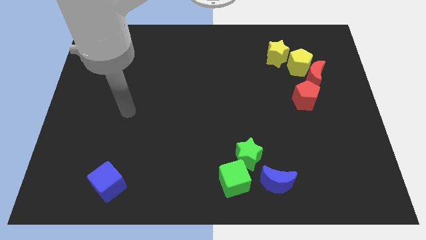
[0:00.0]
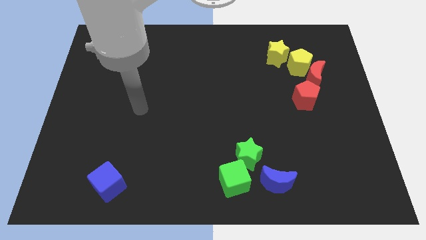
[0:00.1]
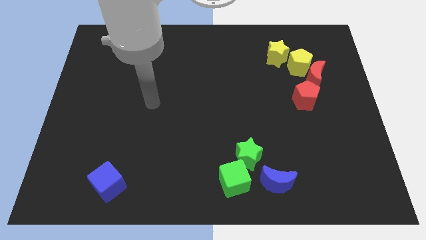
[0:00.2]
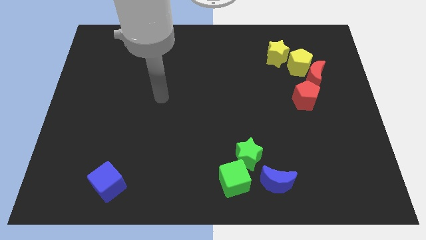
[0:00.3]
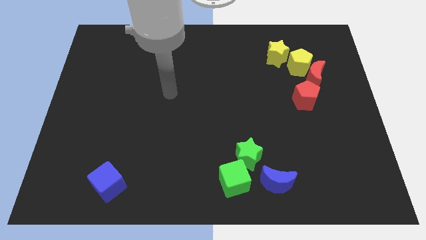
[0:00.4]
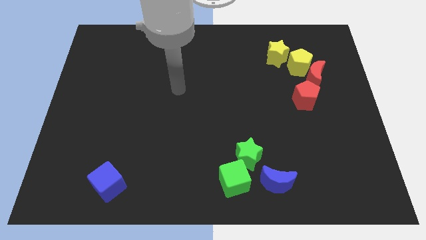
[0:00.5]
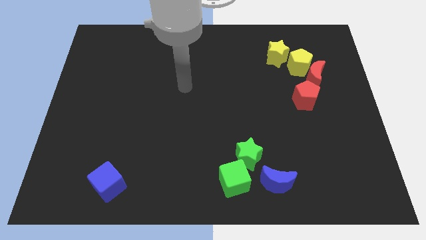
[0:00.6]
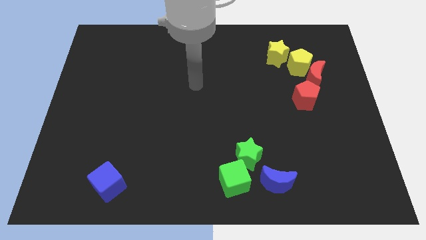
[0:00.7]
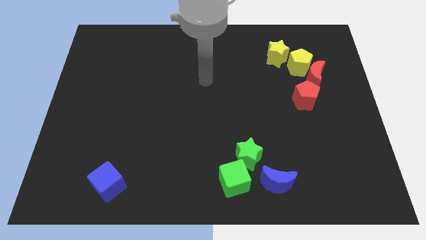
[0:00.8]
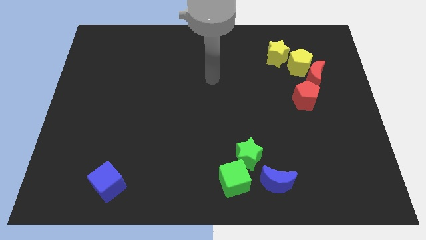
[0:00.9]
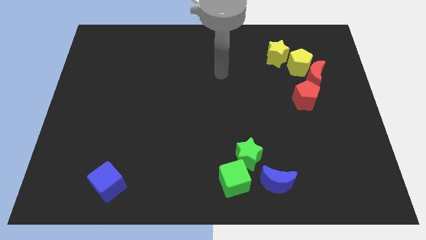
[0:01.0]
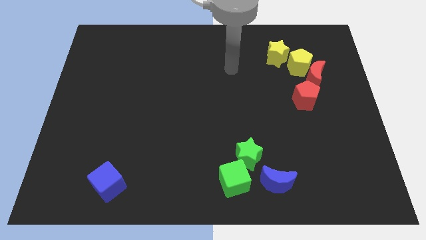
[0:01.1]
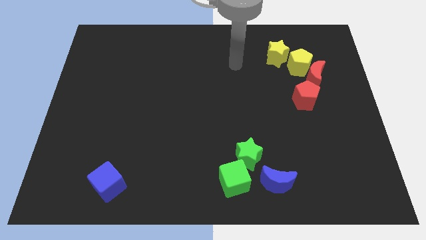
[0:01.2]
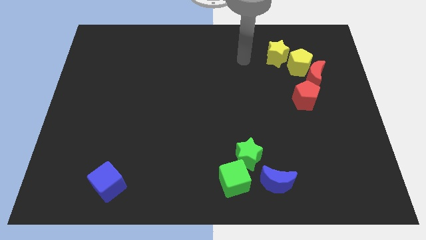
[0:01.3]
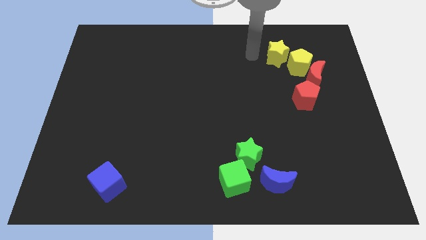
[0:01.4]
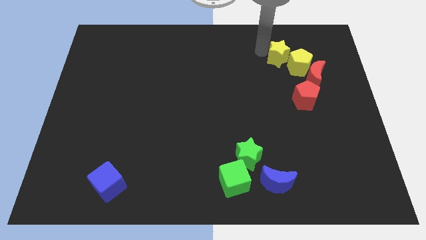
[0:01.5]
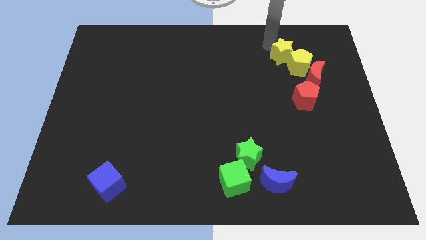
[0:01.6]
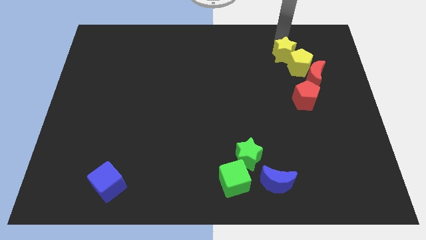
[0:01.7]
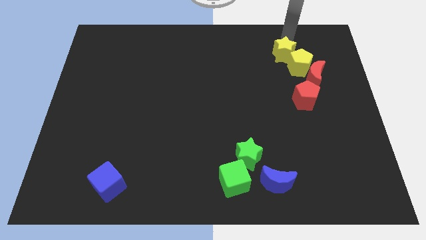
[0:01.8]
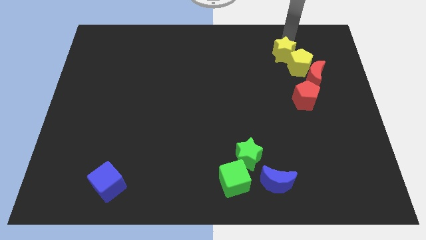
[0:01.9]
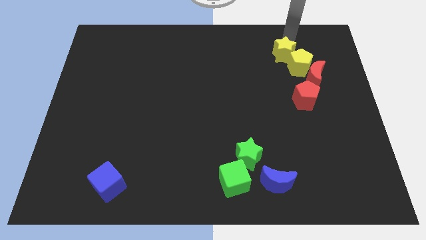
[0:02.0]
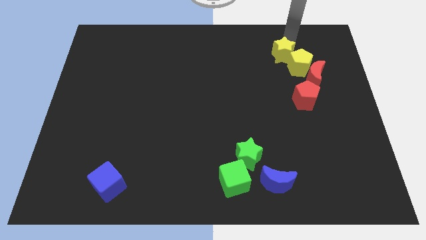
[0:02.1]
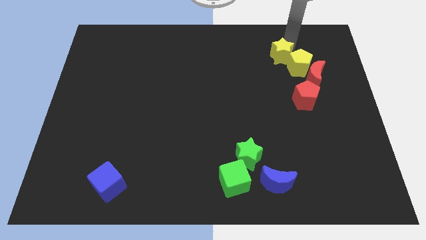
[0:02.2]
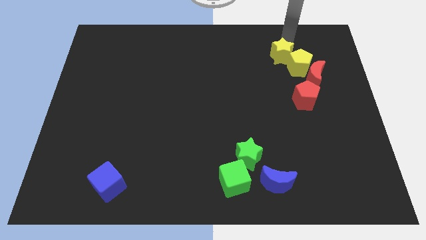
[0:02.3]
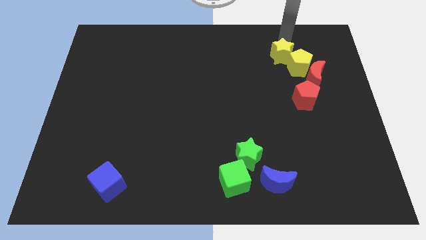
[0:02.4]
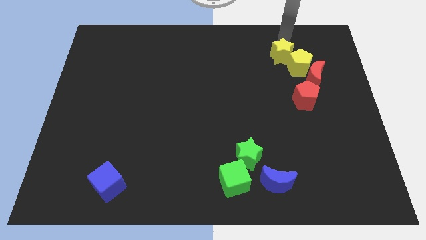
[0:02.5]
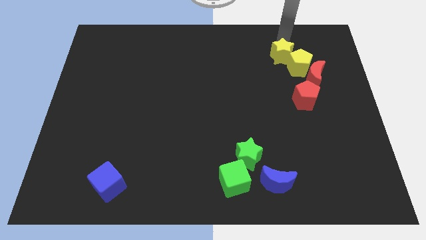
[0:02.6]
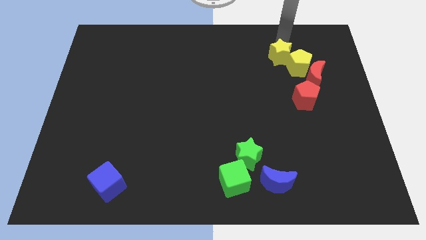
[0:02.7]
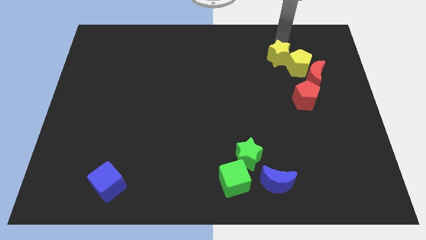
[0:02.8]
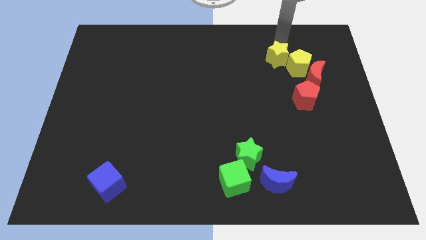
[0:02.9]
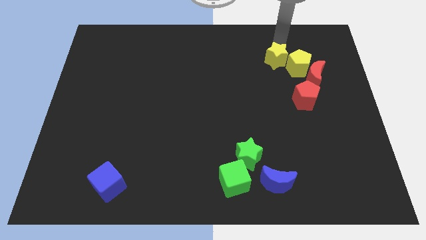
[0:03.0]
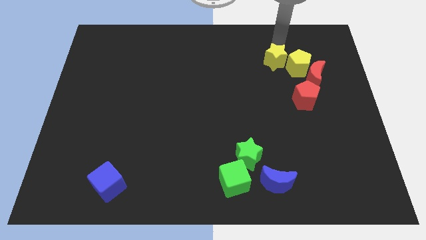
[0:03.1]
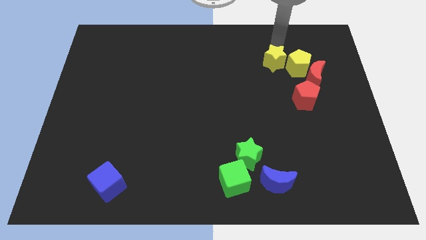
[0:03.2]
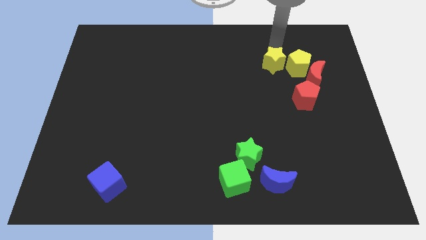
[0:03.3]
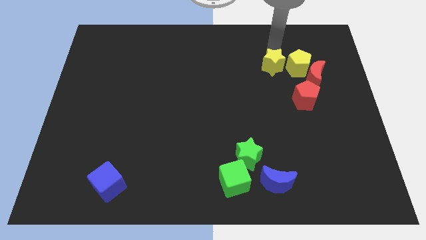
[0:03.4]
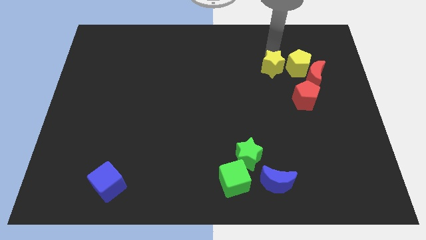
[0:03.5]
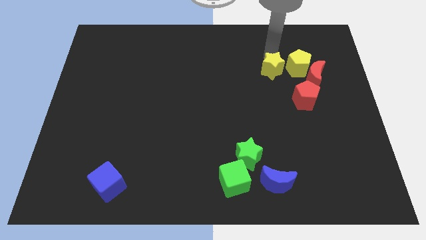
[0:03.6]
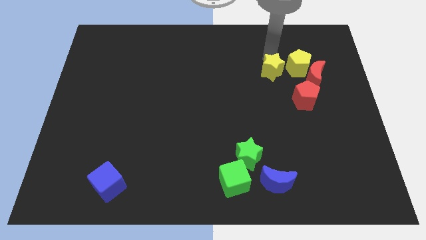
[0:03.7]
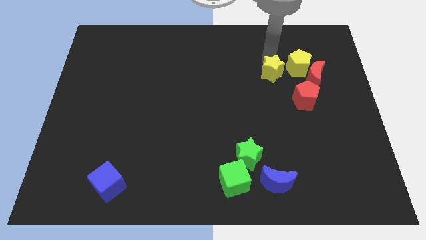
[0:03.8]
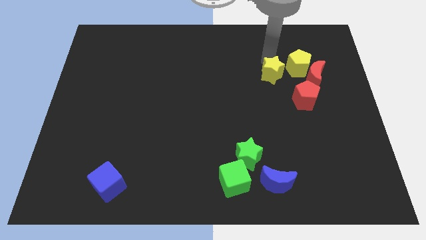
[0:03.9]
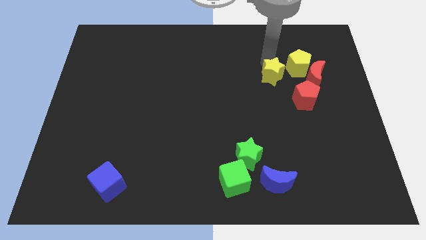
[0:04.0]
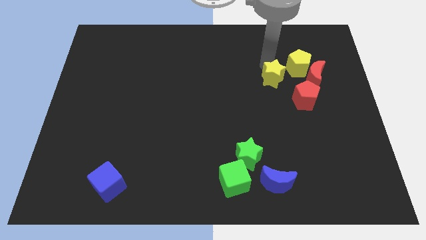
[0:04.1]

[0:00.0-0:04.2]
push the yellow star a bit down

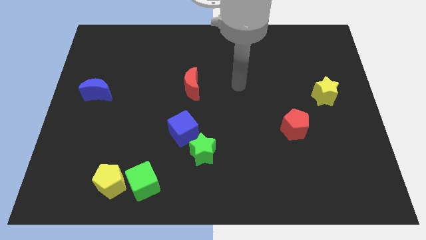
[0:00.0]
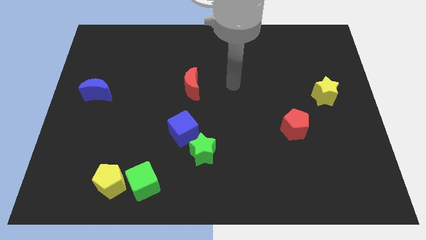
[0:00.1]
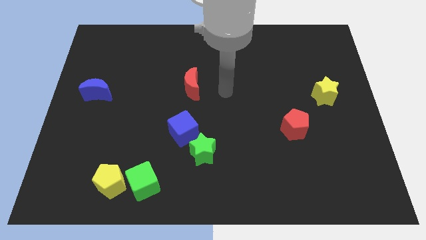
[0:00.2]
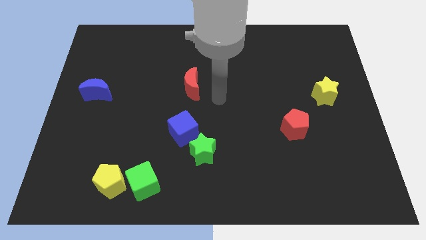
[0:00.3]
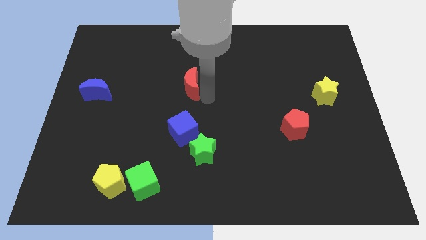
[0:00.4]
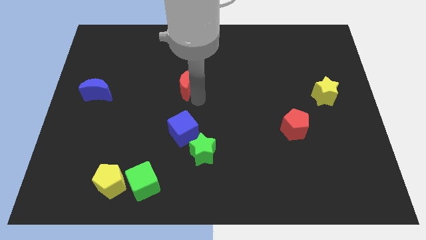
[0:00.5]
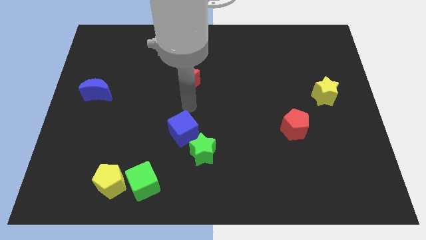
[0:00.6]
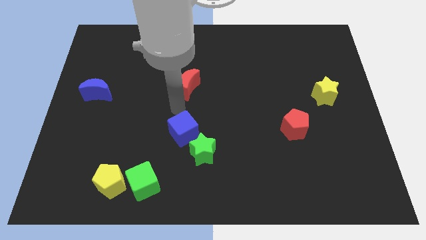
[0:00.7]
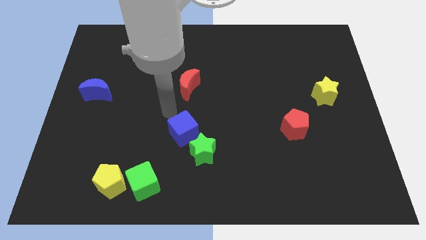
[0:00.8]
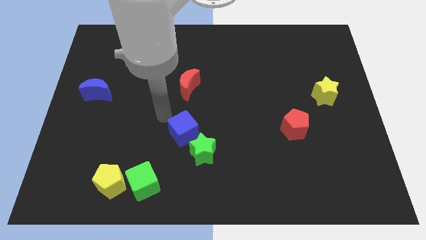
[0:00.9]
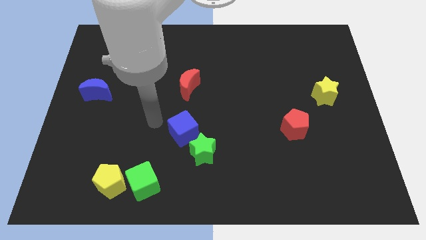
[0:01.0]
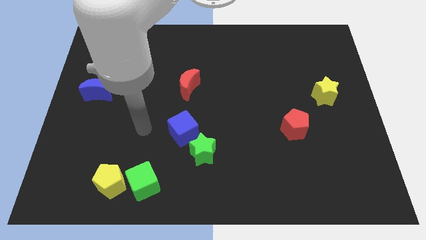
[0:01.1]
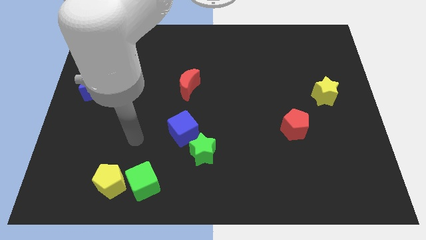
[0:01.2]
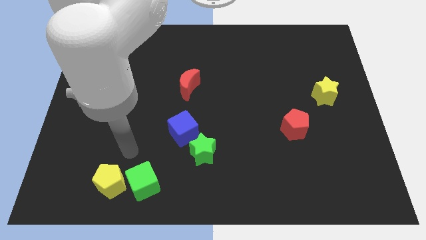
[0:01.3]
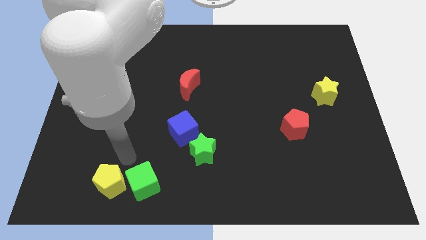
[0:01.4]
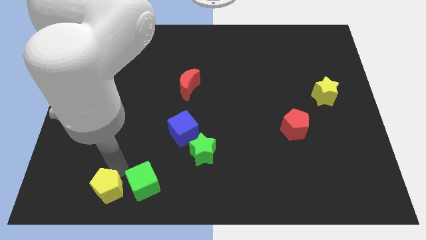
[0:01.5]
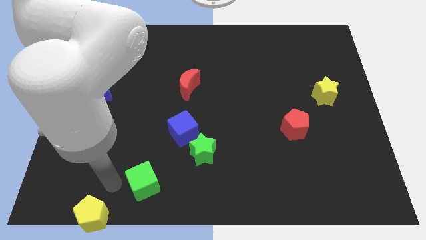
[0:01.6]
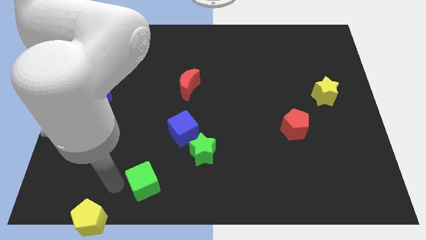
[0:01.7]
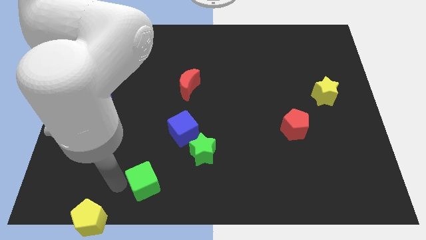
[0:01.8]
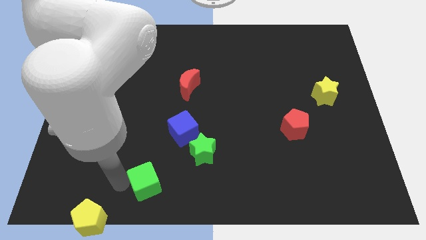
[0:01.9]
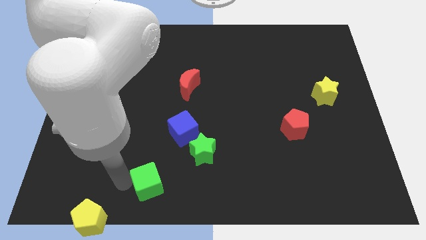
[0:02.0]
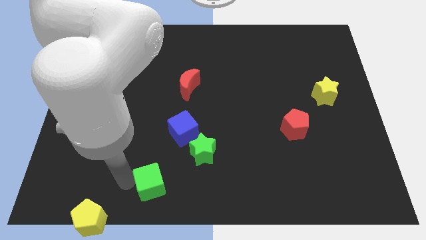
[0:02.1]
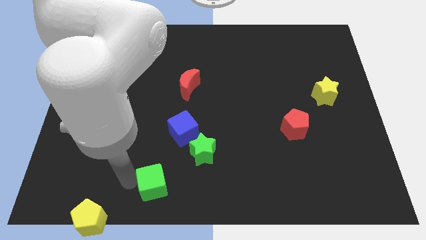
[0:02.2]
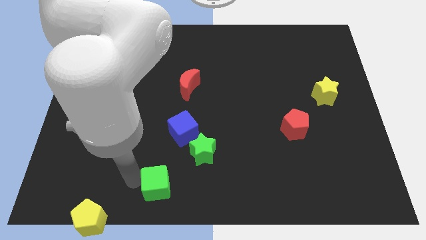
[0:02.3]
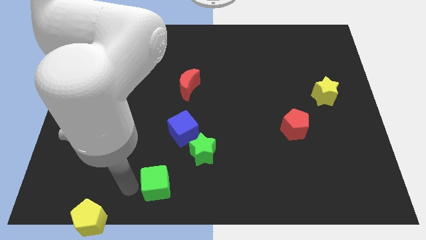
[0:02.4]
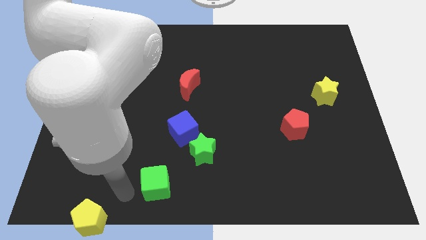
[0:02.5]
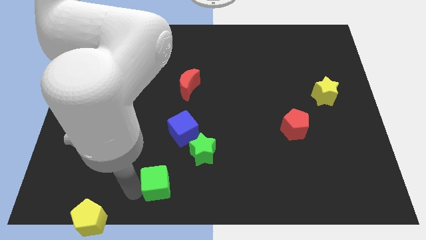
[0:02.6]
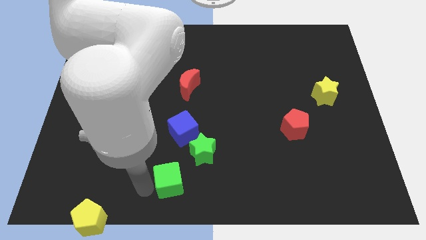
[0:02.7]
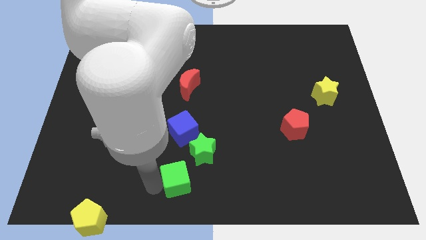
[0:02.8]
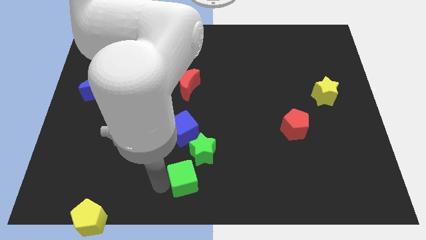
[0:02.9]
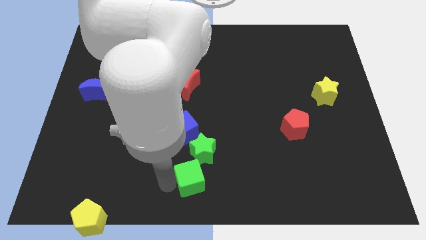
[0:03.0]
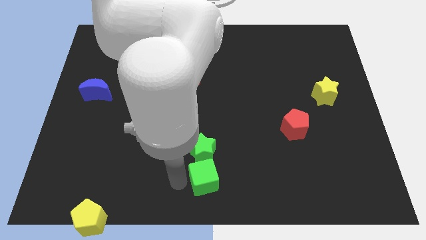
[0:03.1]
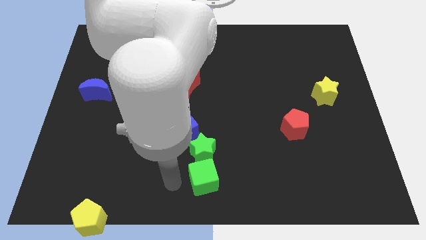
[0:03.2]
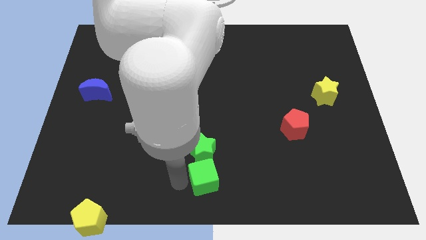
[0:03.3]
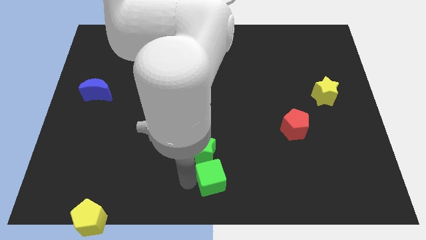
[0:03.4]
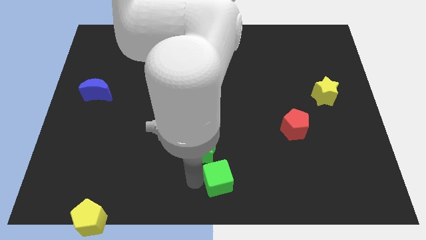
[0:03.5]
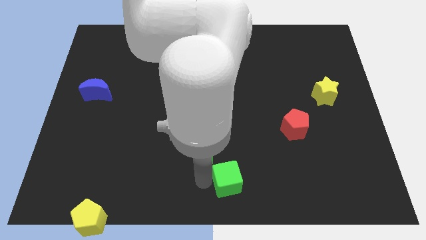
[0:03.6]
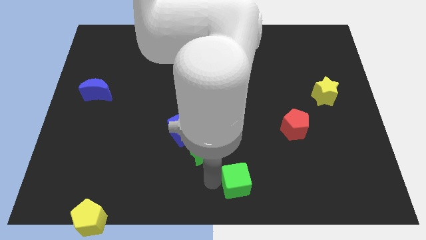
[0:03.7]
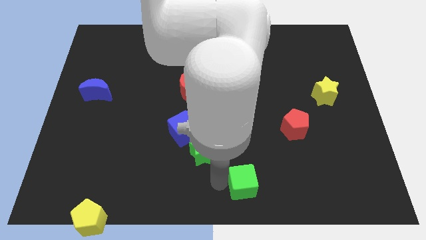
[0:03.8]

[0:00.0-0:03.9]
slide the green cube to the right

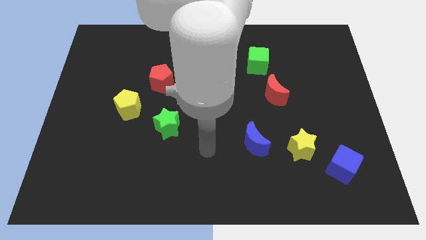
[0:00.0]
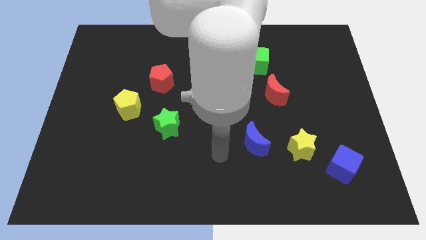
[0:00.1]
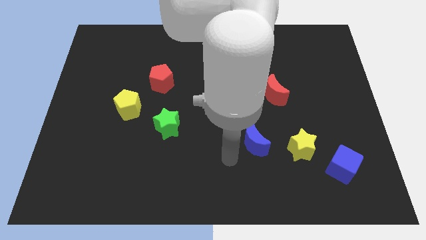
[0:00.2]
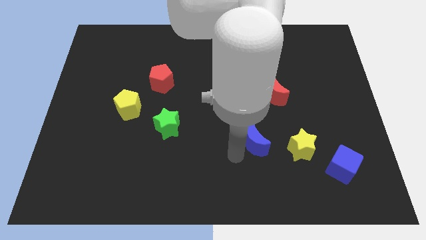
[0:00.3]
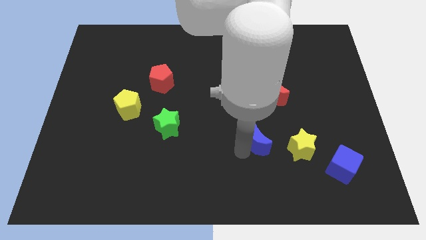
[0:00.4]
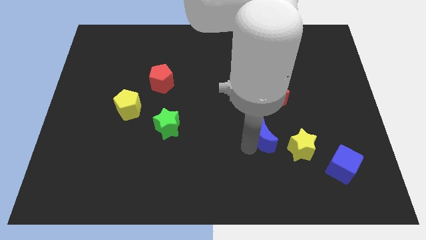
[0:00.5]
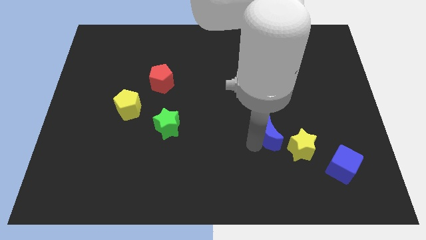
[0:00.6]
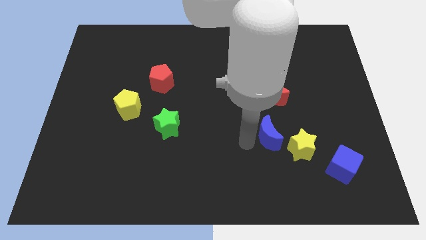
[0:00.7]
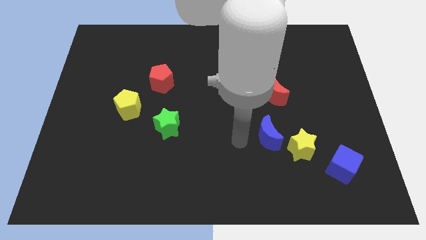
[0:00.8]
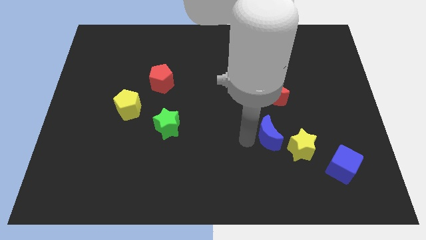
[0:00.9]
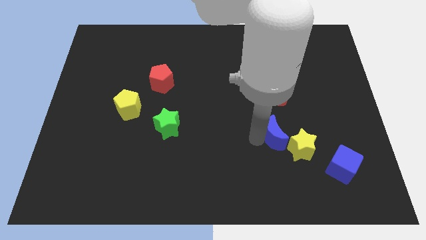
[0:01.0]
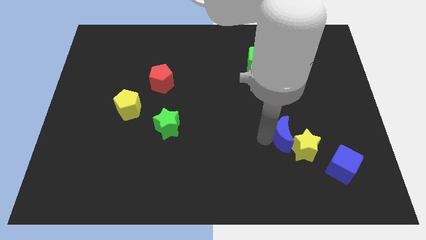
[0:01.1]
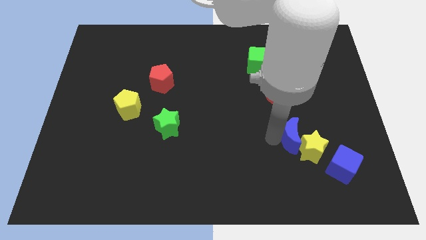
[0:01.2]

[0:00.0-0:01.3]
slide the blue moon a bit to the right
